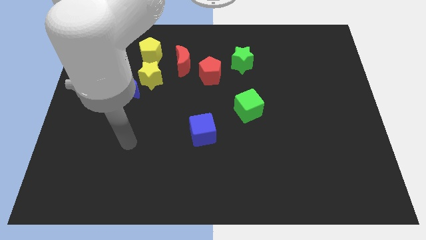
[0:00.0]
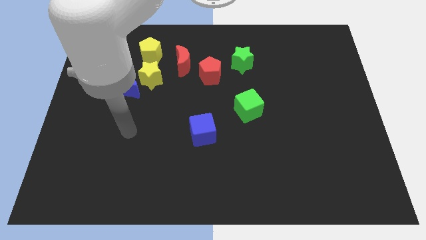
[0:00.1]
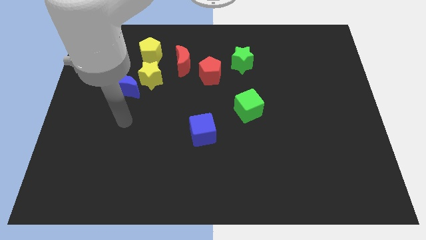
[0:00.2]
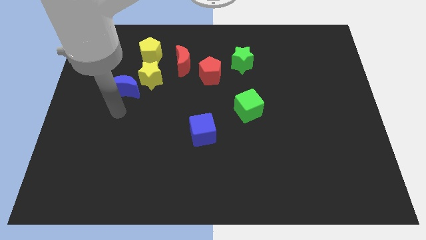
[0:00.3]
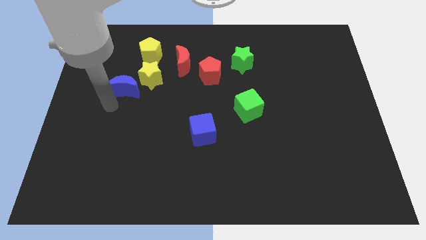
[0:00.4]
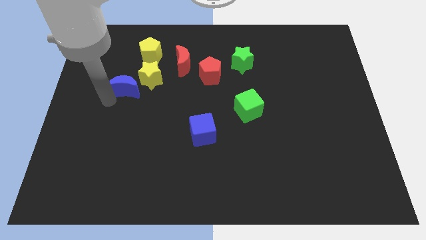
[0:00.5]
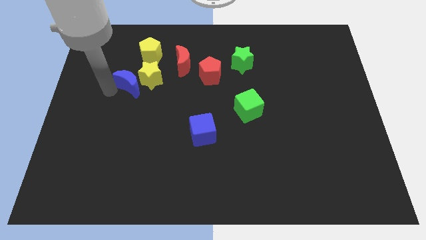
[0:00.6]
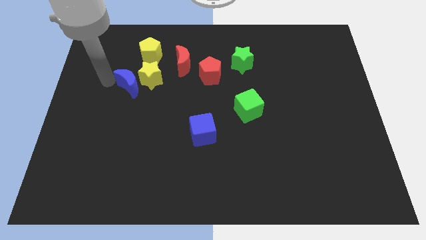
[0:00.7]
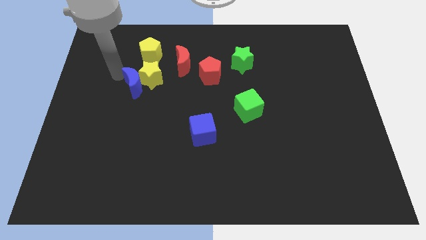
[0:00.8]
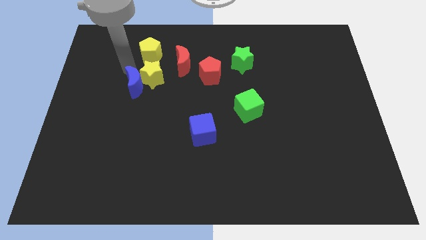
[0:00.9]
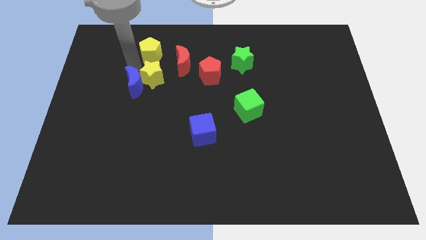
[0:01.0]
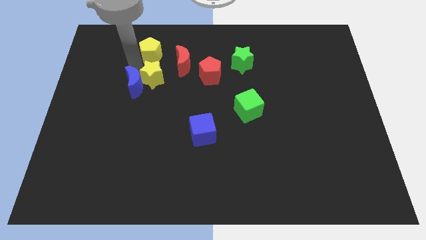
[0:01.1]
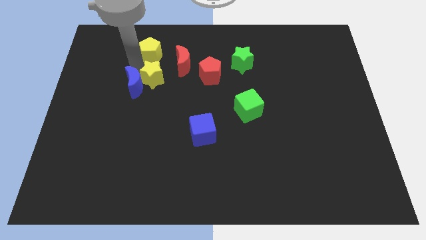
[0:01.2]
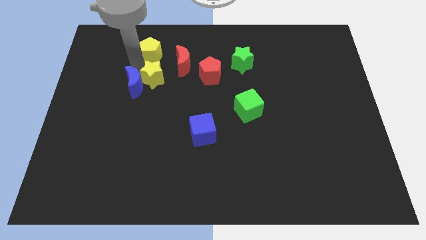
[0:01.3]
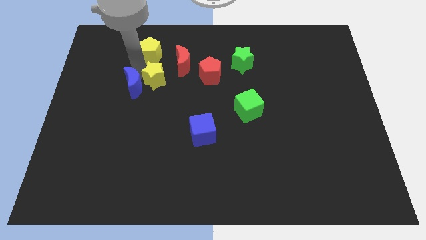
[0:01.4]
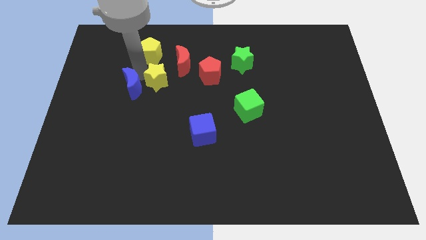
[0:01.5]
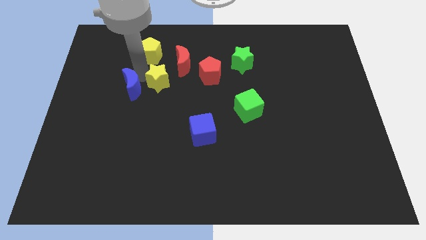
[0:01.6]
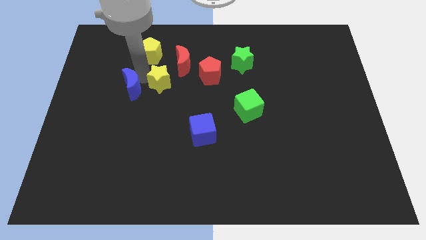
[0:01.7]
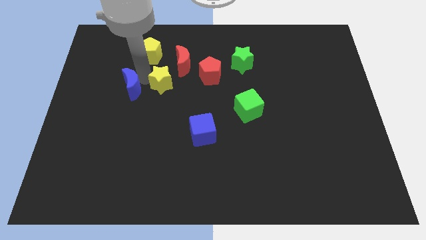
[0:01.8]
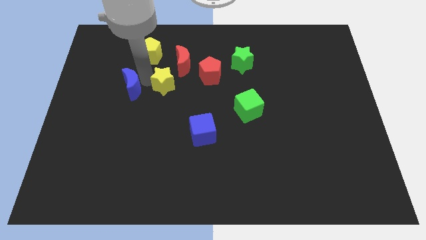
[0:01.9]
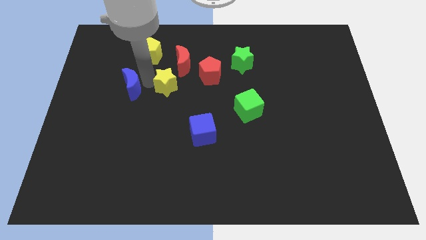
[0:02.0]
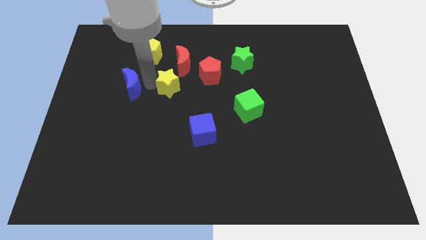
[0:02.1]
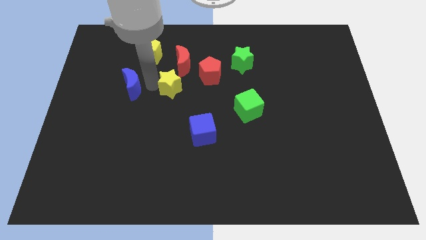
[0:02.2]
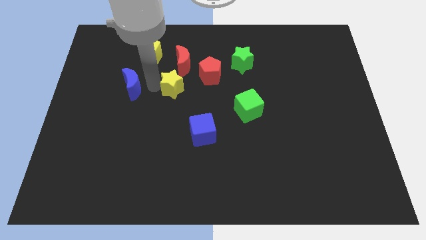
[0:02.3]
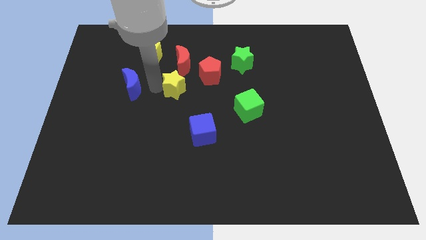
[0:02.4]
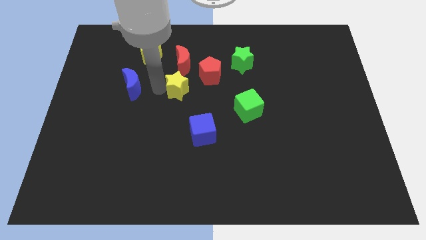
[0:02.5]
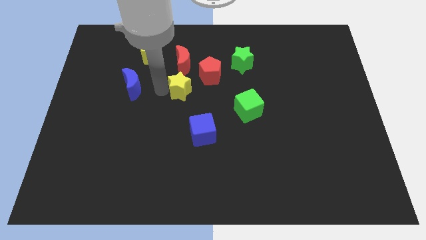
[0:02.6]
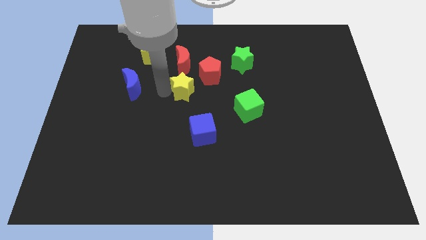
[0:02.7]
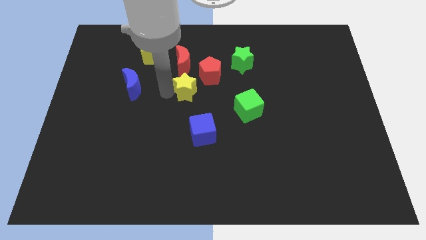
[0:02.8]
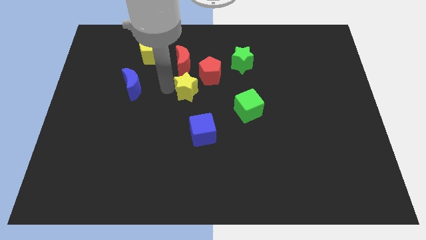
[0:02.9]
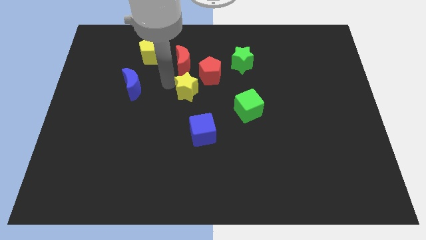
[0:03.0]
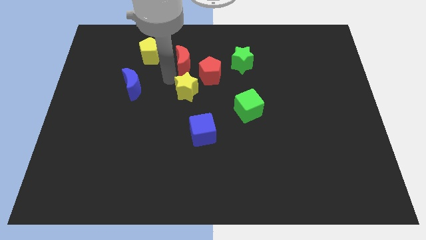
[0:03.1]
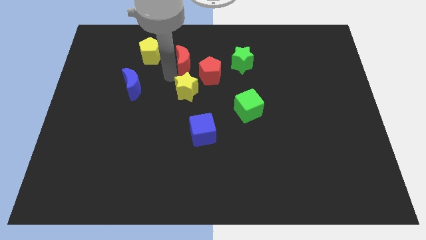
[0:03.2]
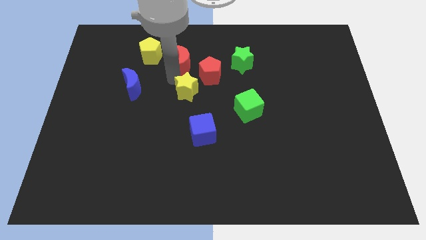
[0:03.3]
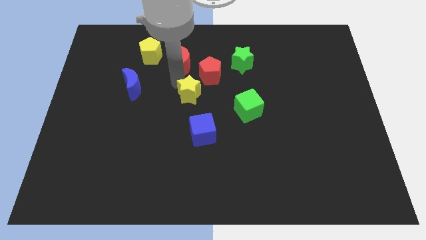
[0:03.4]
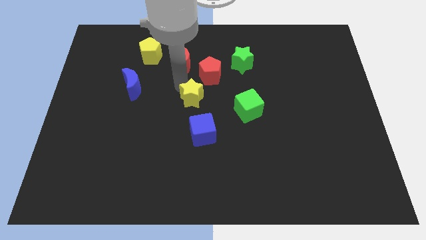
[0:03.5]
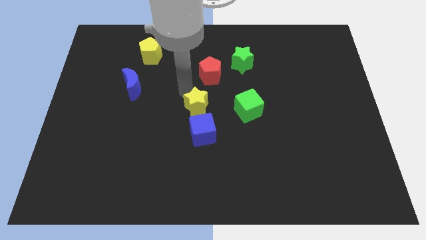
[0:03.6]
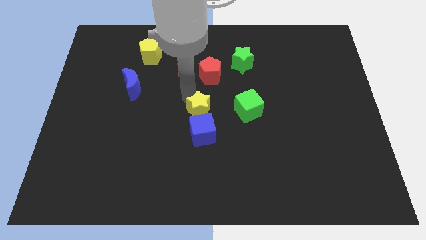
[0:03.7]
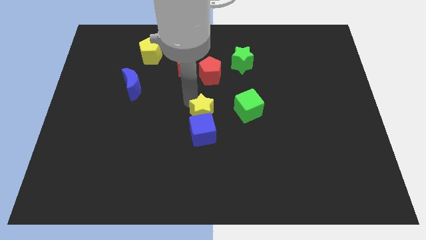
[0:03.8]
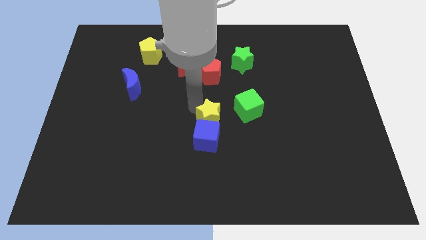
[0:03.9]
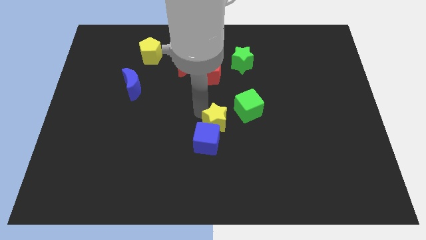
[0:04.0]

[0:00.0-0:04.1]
slide the yellow star down and to the right

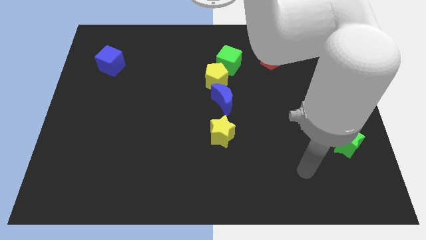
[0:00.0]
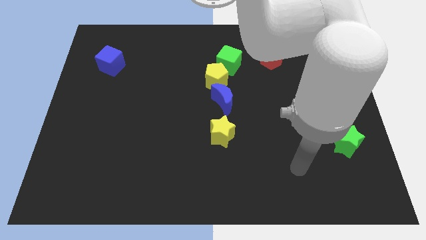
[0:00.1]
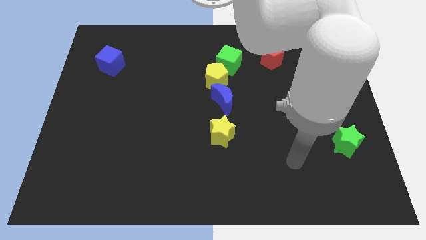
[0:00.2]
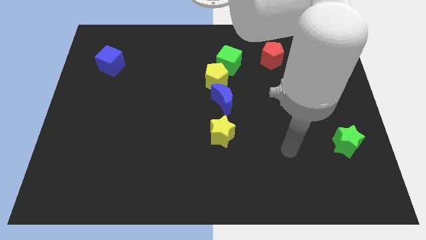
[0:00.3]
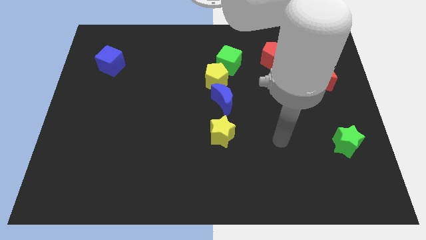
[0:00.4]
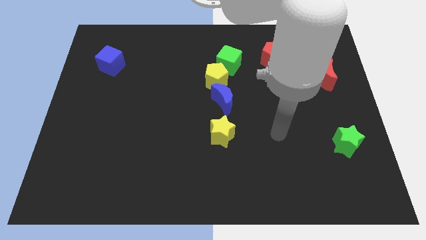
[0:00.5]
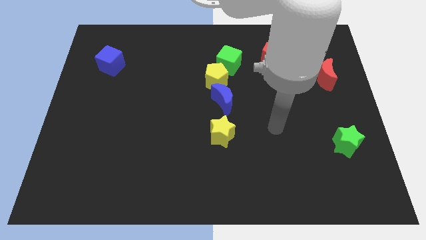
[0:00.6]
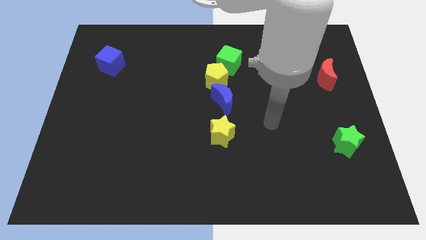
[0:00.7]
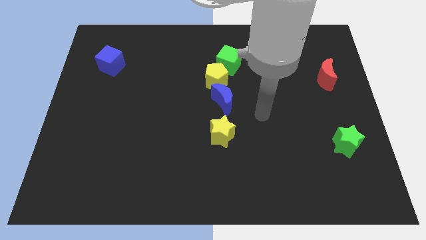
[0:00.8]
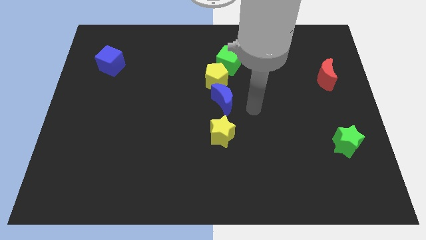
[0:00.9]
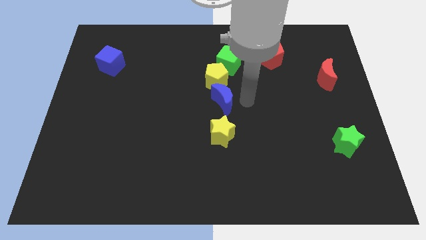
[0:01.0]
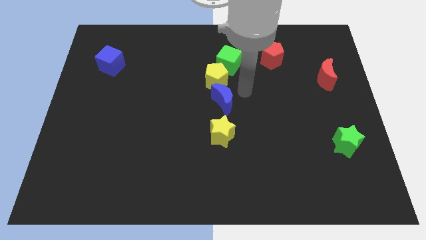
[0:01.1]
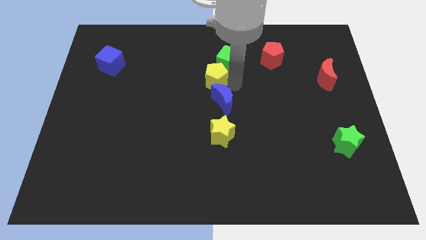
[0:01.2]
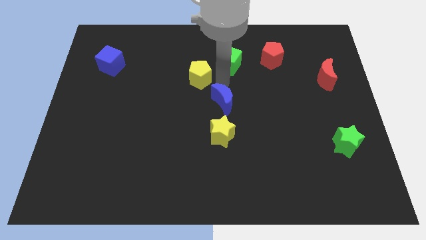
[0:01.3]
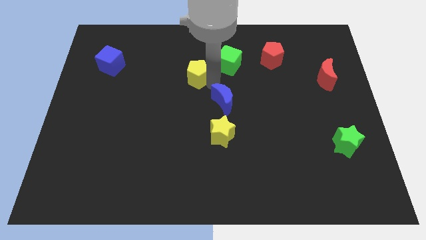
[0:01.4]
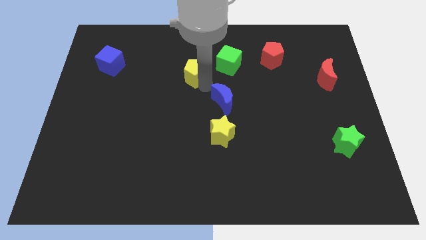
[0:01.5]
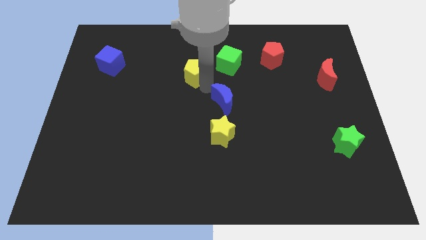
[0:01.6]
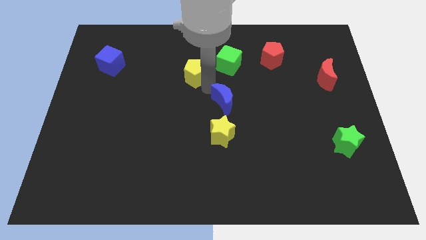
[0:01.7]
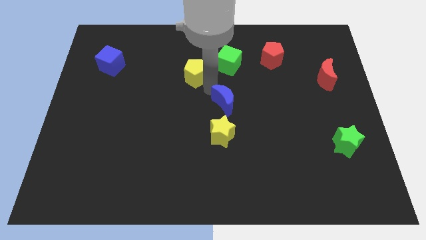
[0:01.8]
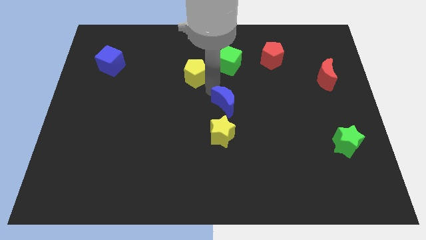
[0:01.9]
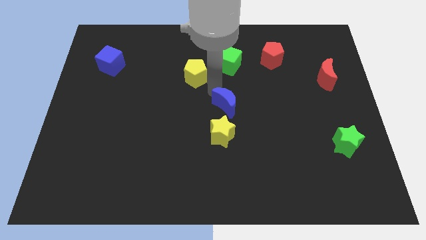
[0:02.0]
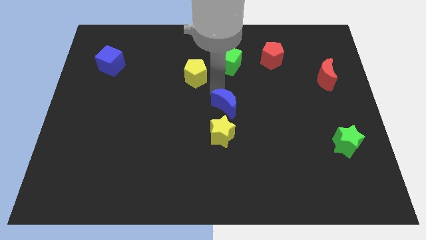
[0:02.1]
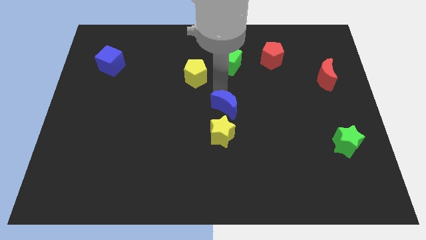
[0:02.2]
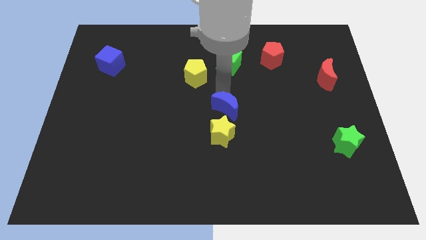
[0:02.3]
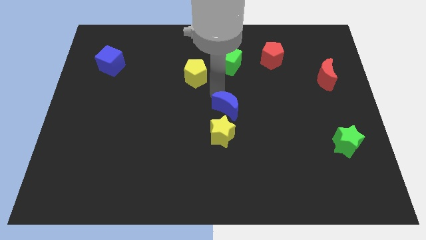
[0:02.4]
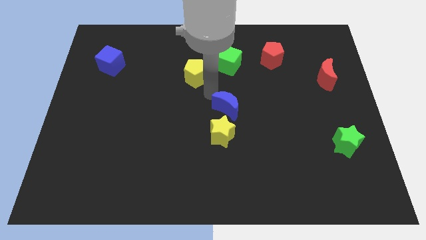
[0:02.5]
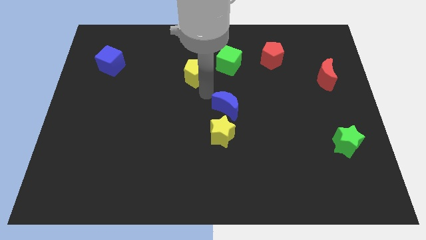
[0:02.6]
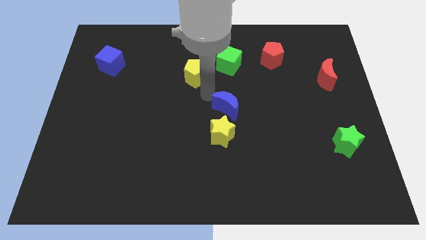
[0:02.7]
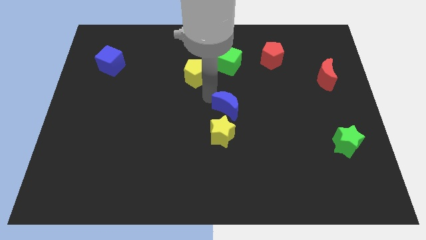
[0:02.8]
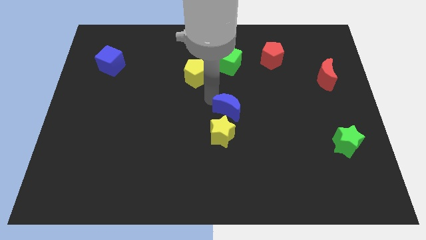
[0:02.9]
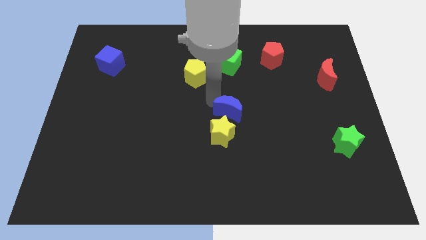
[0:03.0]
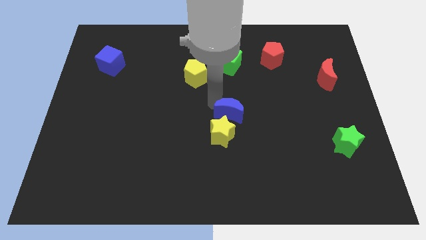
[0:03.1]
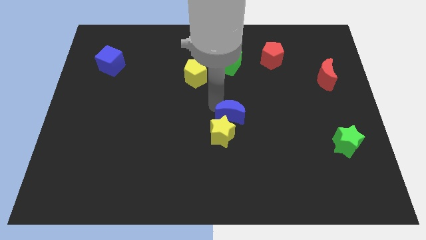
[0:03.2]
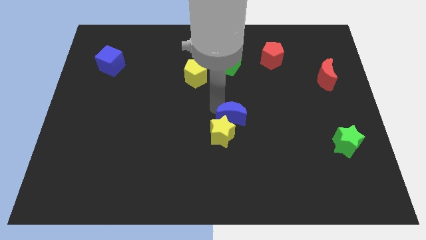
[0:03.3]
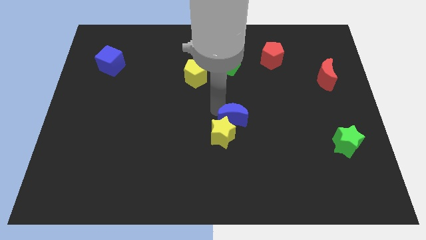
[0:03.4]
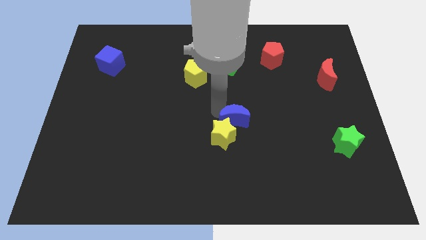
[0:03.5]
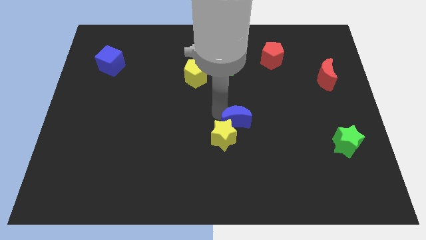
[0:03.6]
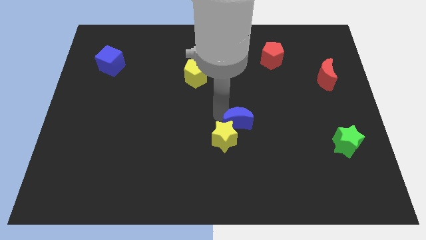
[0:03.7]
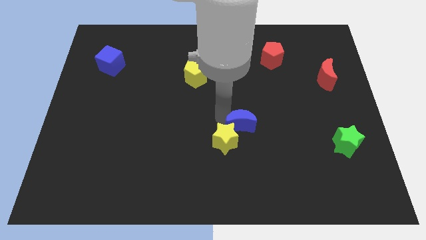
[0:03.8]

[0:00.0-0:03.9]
push the blue moon slightly down and right
